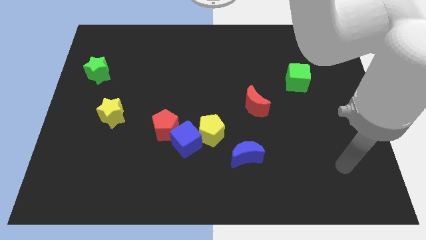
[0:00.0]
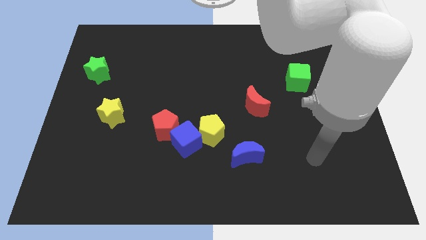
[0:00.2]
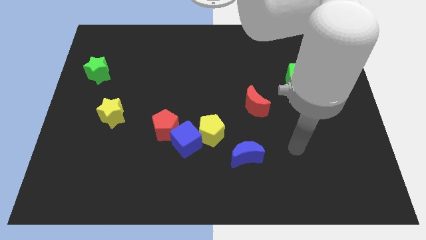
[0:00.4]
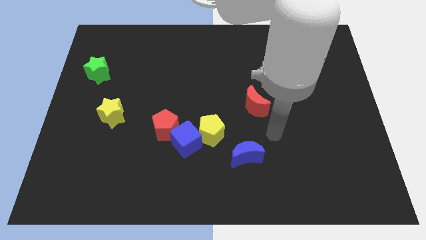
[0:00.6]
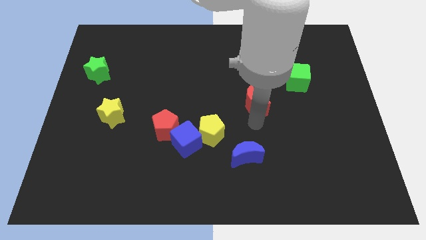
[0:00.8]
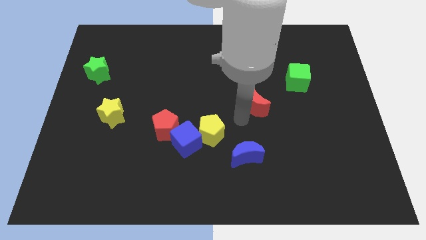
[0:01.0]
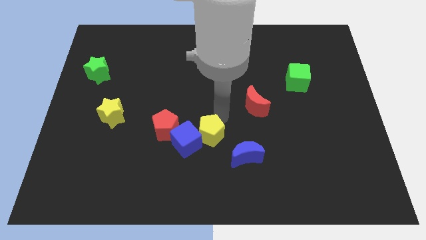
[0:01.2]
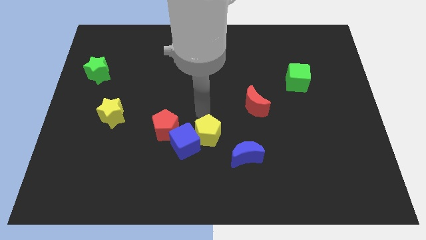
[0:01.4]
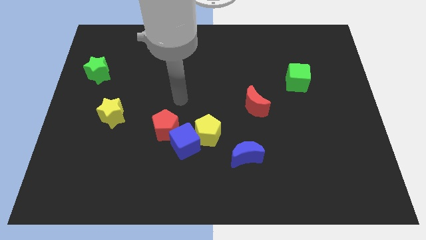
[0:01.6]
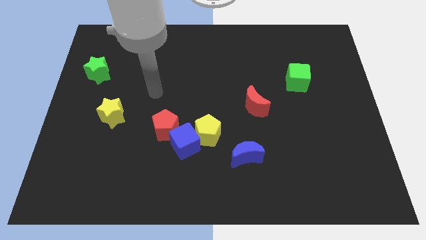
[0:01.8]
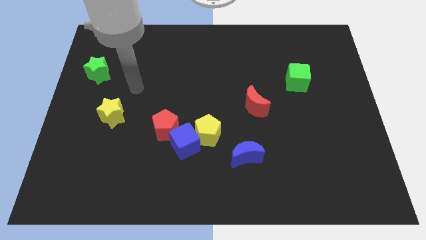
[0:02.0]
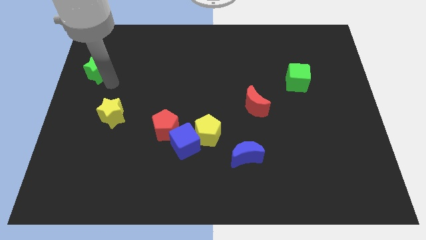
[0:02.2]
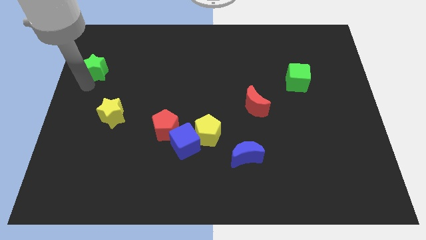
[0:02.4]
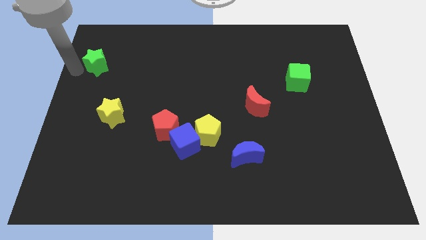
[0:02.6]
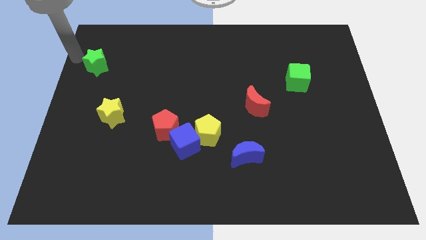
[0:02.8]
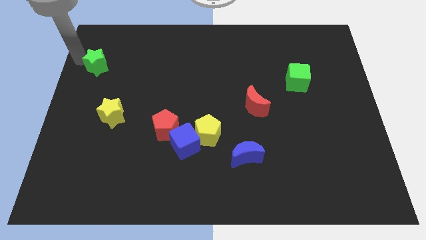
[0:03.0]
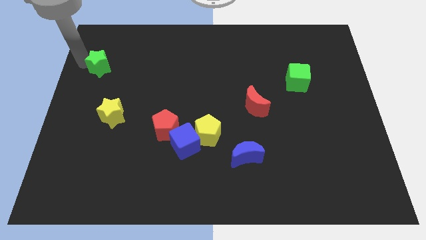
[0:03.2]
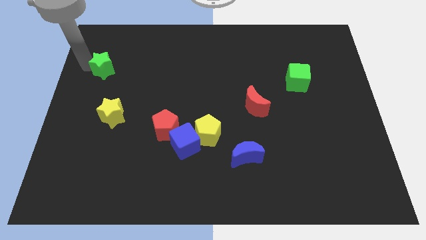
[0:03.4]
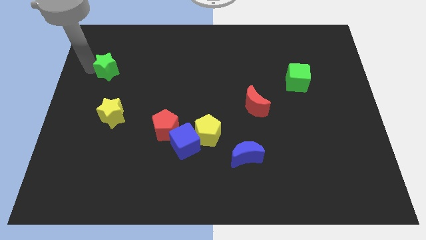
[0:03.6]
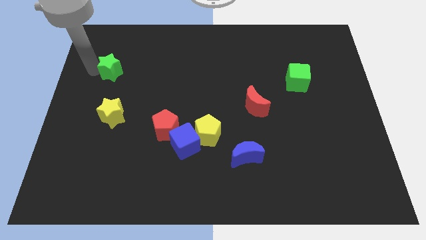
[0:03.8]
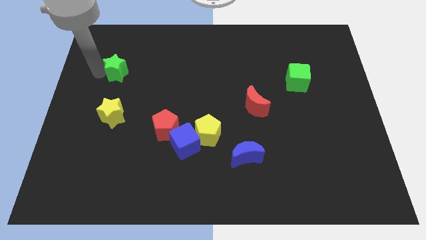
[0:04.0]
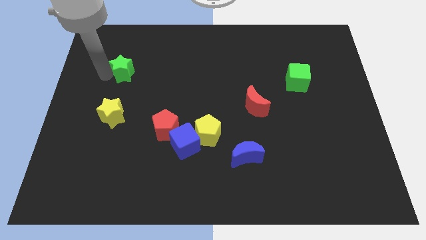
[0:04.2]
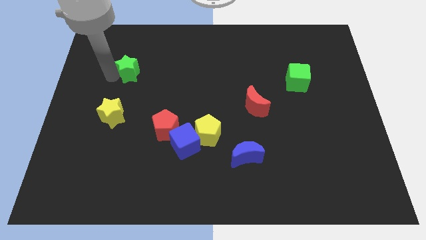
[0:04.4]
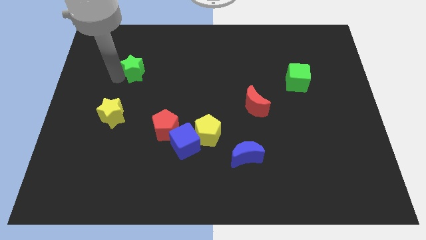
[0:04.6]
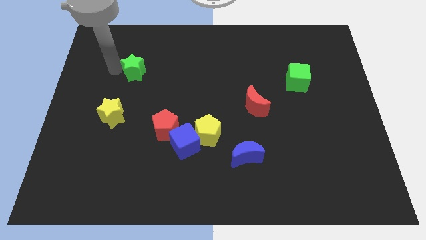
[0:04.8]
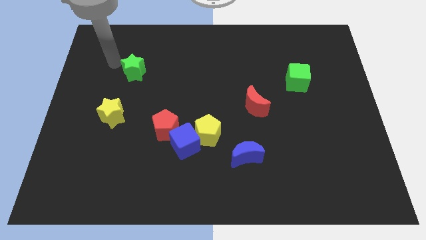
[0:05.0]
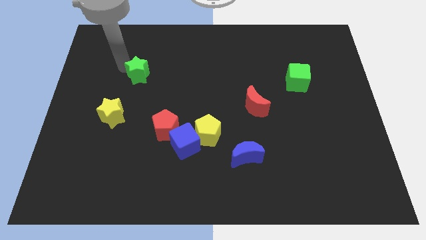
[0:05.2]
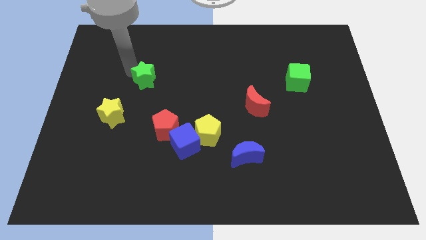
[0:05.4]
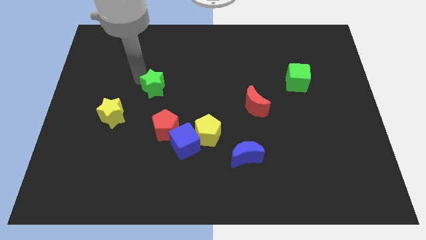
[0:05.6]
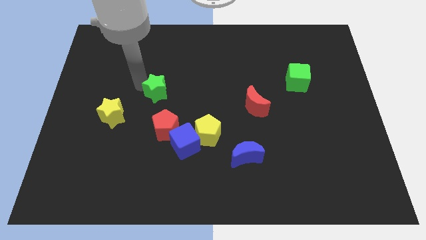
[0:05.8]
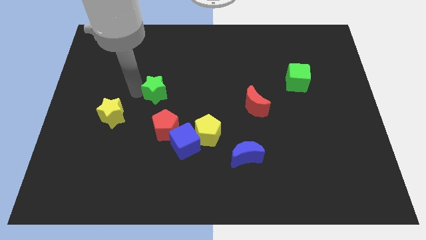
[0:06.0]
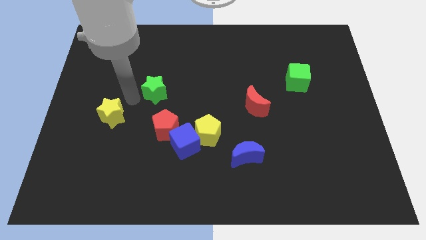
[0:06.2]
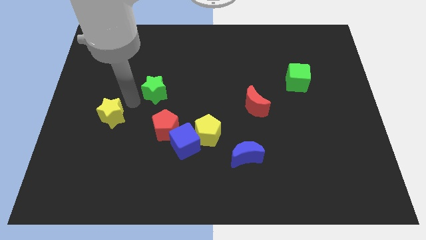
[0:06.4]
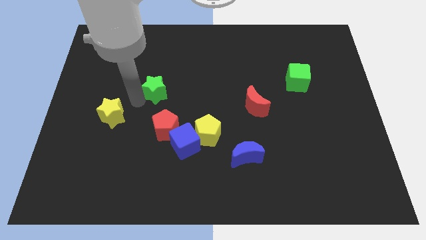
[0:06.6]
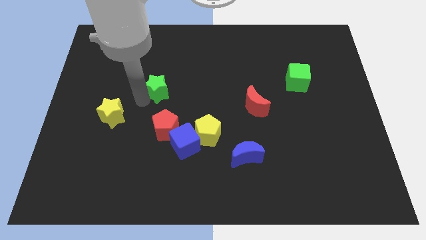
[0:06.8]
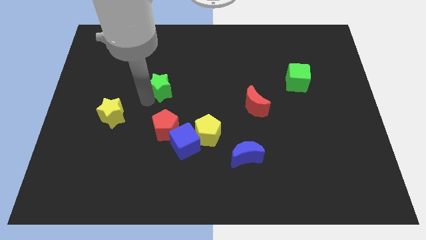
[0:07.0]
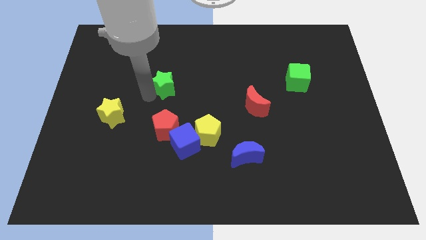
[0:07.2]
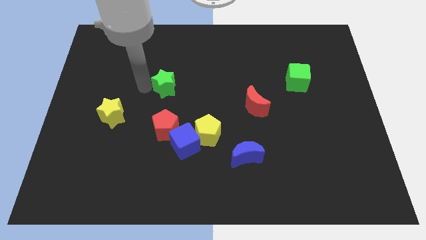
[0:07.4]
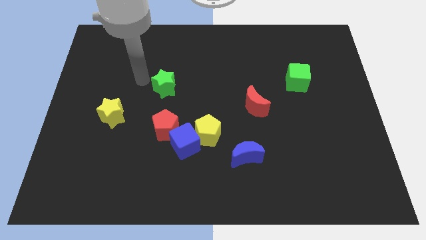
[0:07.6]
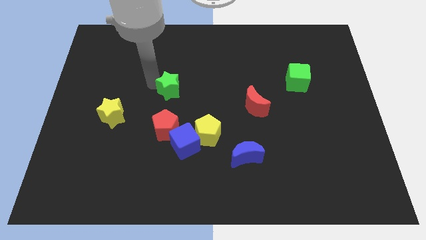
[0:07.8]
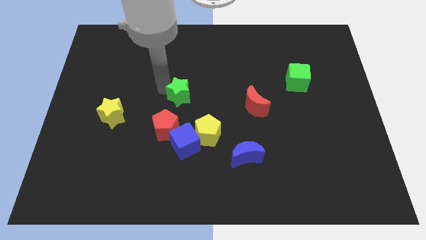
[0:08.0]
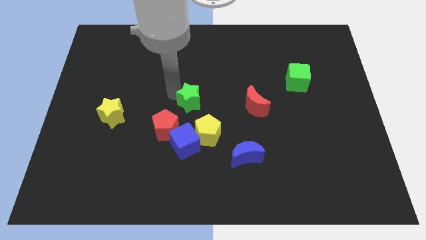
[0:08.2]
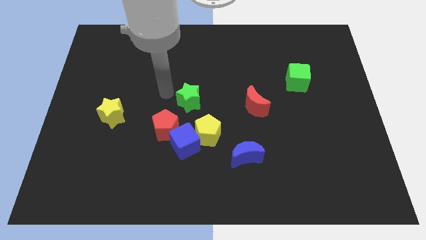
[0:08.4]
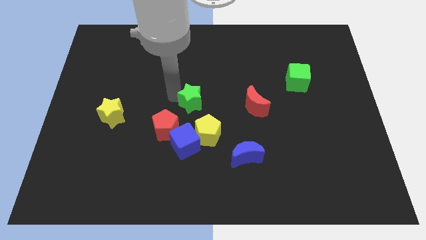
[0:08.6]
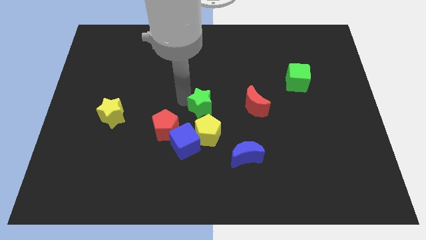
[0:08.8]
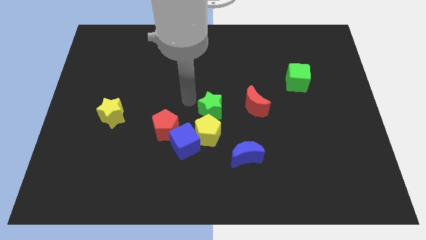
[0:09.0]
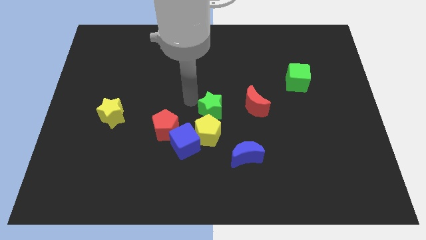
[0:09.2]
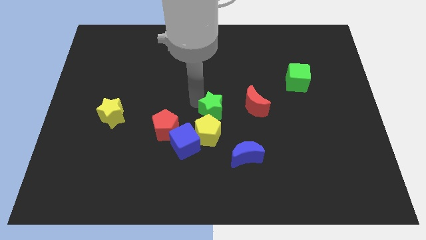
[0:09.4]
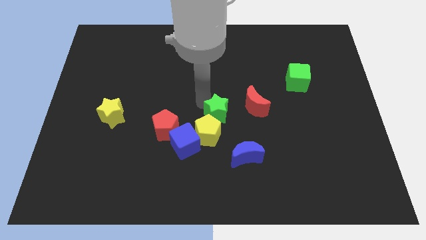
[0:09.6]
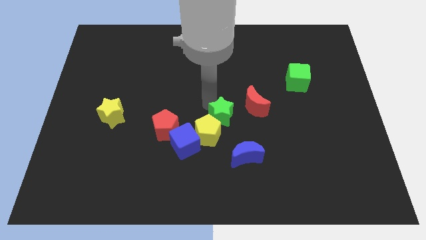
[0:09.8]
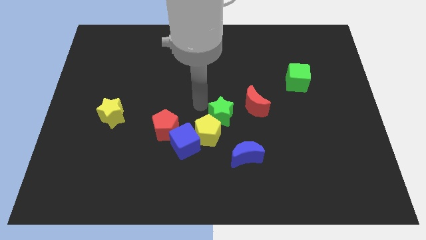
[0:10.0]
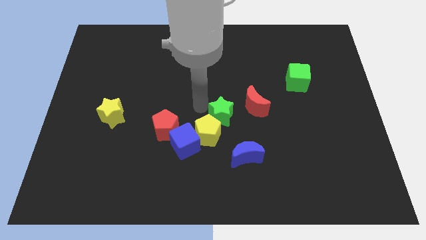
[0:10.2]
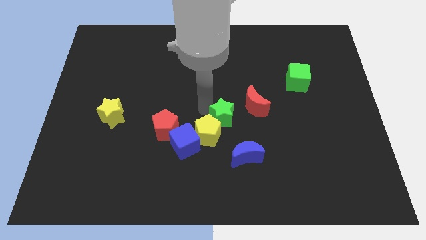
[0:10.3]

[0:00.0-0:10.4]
slide the green star just right of the yellow pentagon

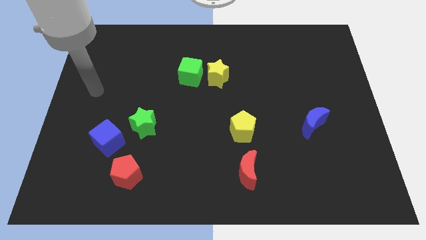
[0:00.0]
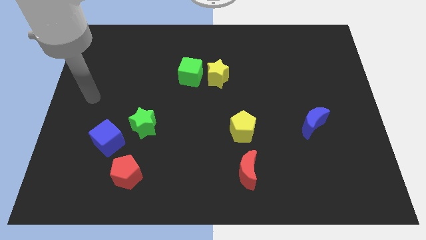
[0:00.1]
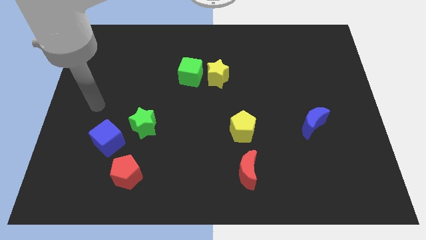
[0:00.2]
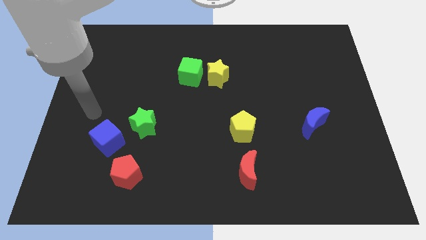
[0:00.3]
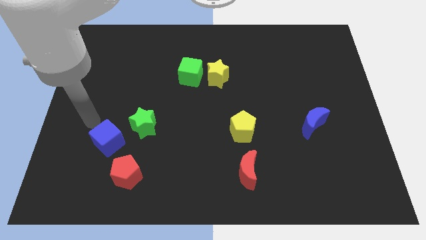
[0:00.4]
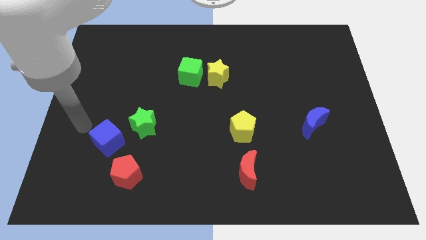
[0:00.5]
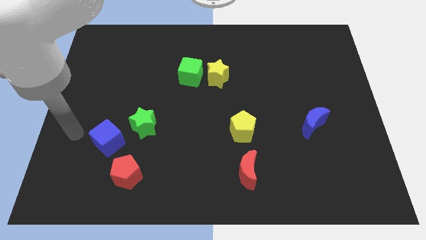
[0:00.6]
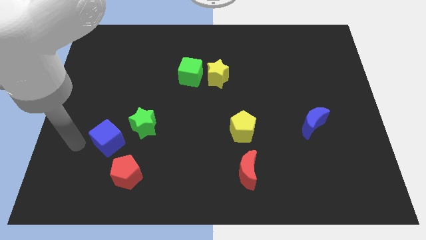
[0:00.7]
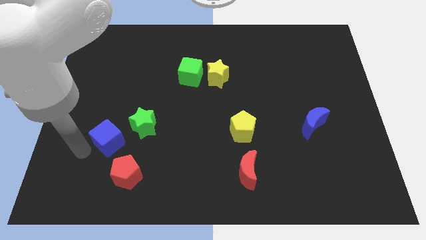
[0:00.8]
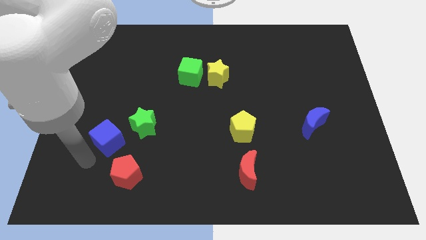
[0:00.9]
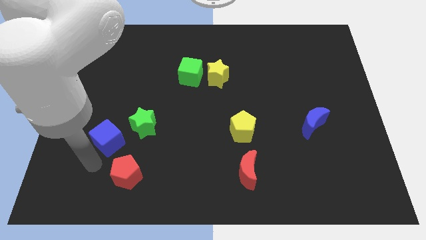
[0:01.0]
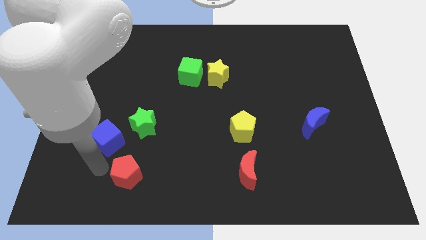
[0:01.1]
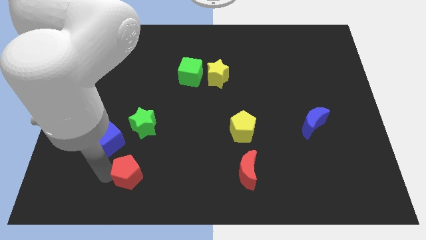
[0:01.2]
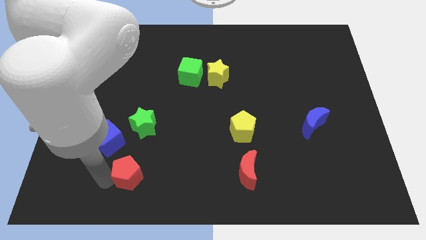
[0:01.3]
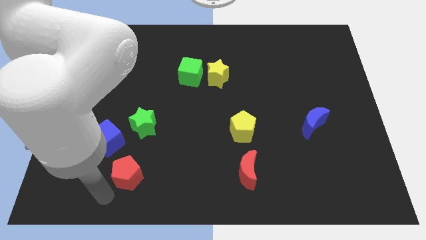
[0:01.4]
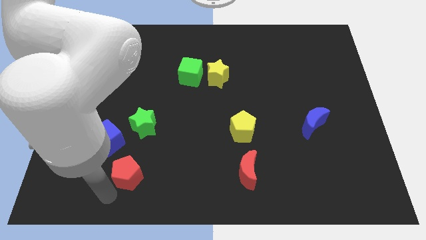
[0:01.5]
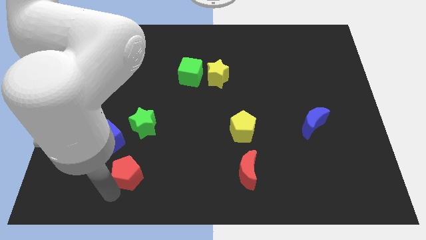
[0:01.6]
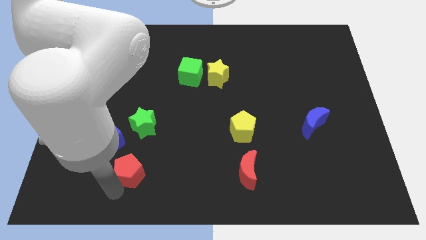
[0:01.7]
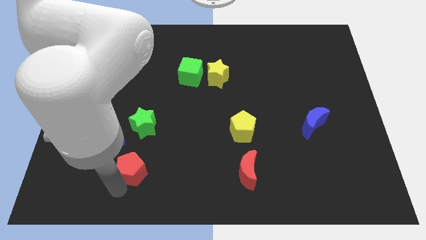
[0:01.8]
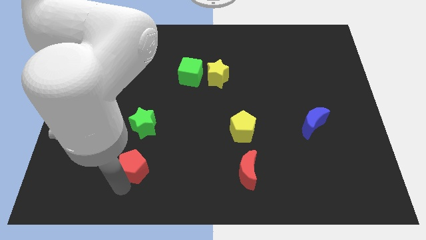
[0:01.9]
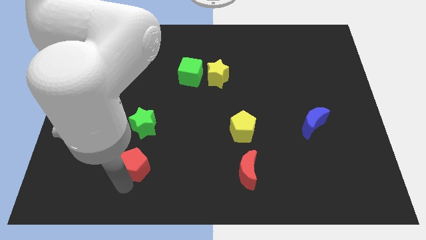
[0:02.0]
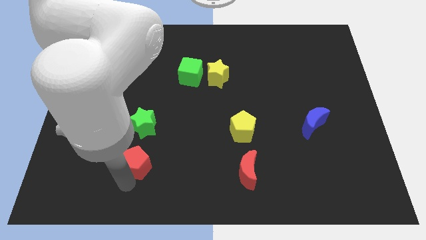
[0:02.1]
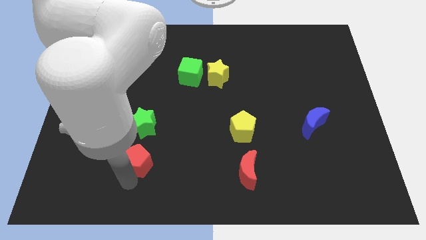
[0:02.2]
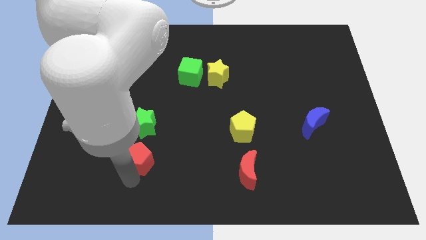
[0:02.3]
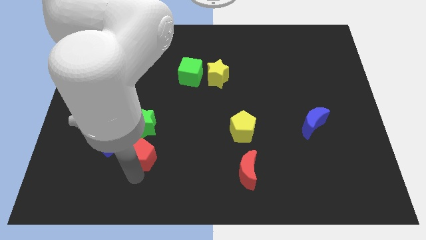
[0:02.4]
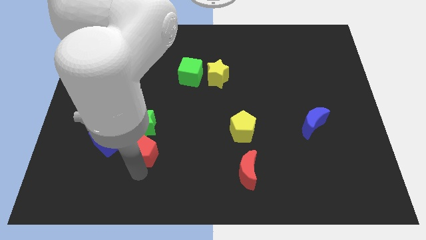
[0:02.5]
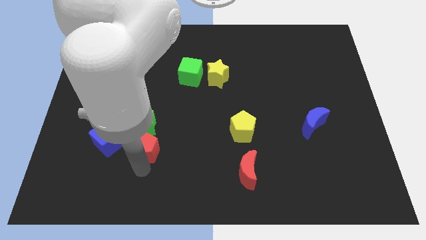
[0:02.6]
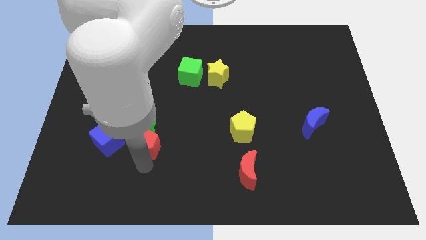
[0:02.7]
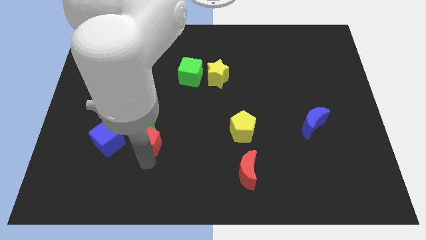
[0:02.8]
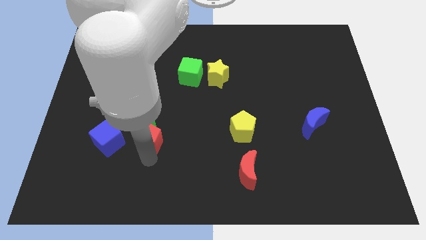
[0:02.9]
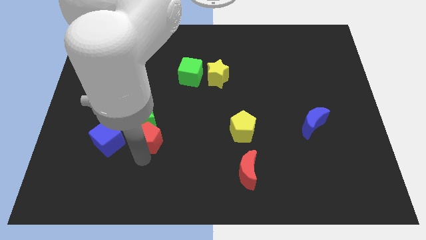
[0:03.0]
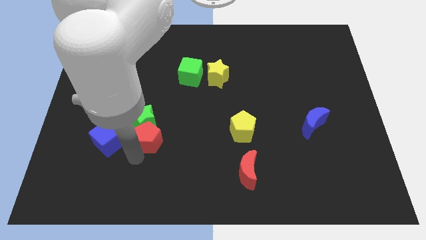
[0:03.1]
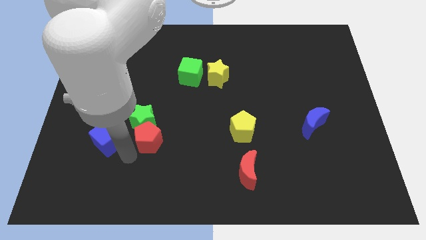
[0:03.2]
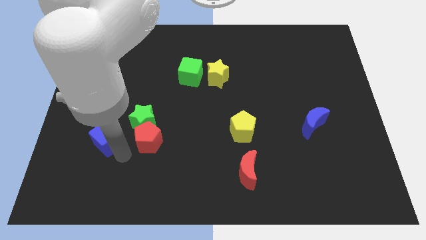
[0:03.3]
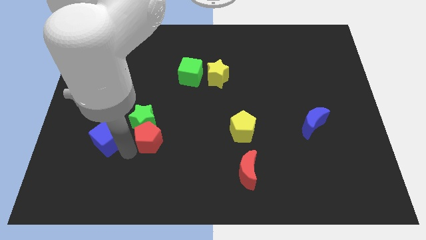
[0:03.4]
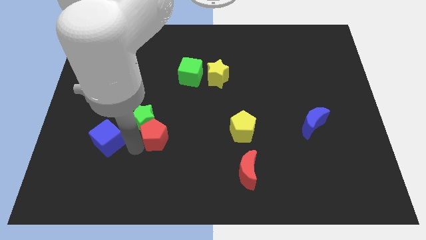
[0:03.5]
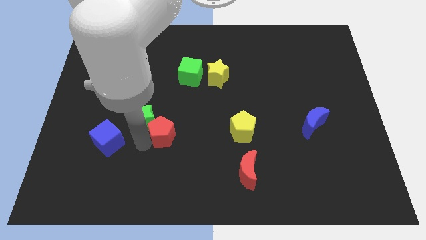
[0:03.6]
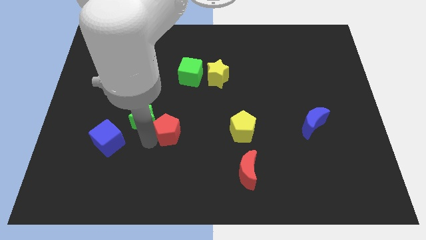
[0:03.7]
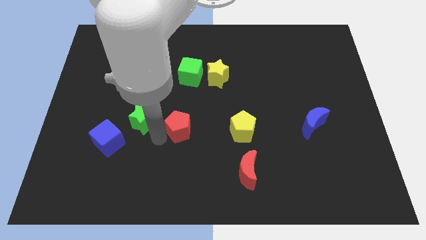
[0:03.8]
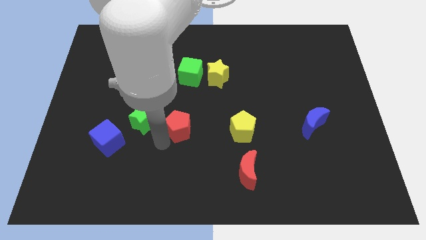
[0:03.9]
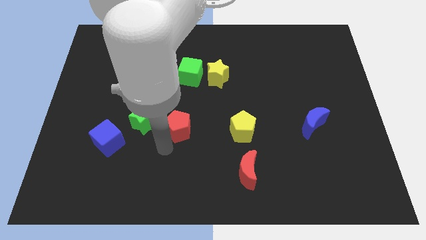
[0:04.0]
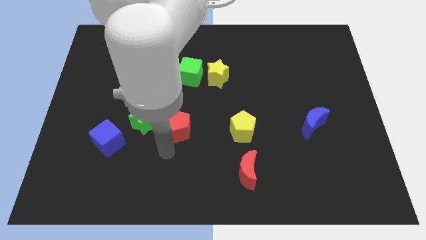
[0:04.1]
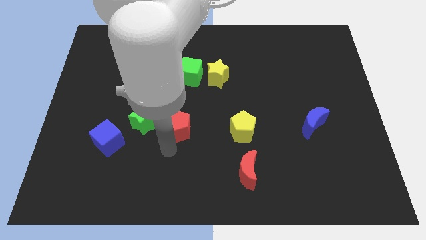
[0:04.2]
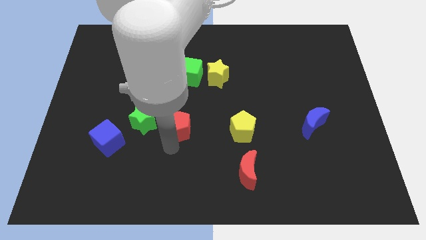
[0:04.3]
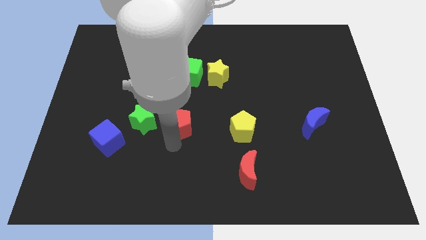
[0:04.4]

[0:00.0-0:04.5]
move the red pentagon below the green cube
